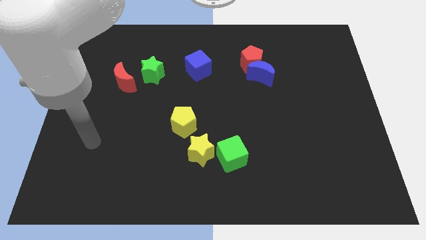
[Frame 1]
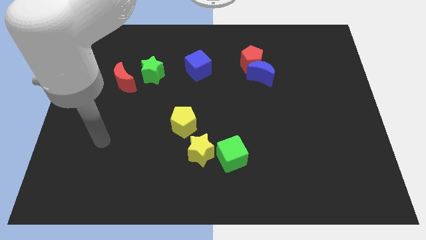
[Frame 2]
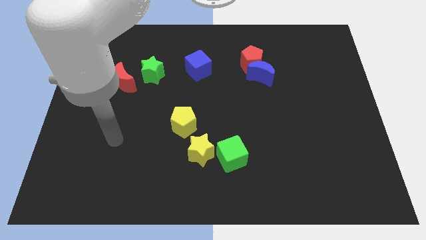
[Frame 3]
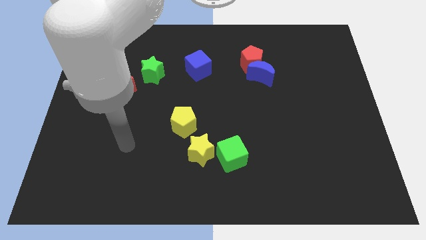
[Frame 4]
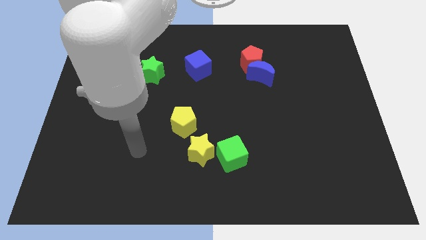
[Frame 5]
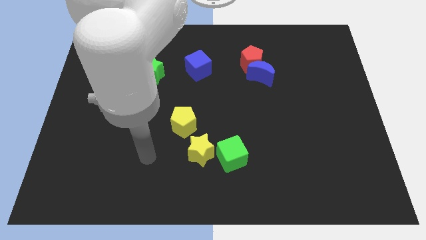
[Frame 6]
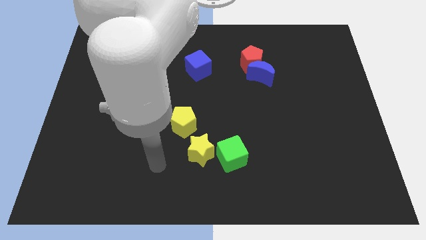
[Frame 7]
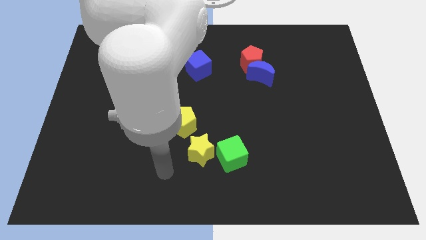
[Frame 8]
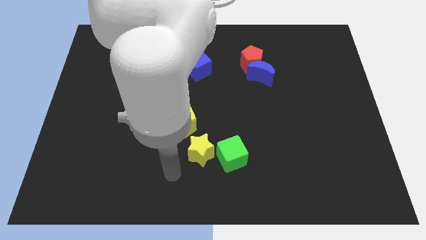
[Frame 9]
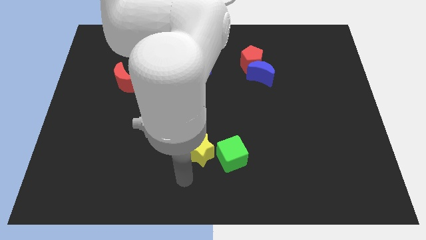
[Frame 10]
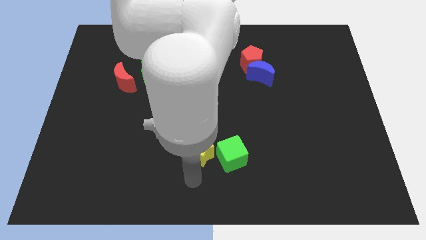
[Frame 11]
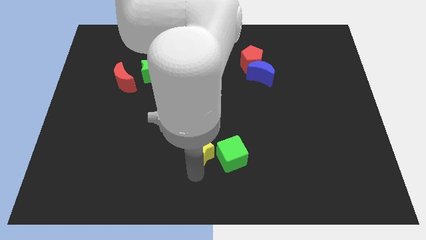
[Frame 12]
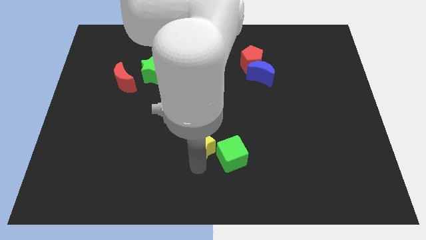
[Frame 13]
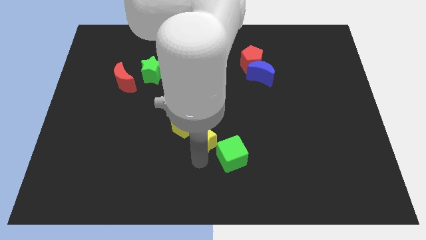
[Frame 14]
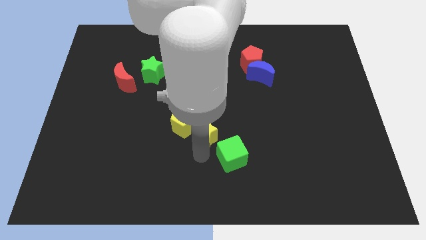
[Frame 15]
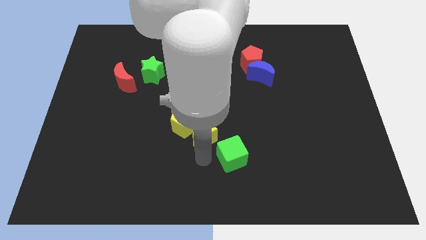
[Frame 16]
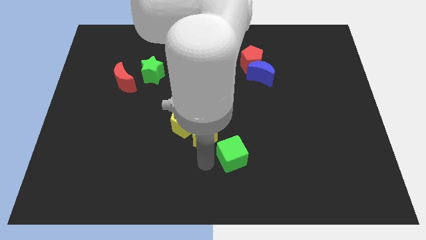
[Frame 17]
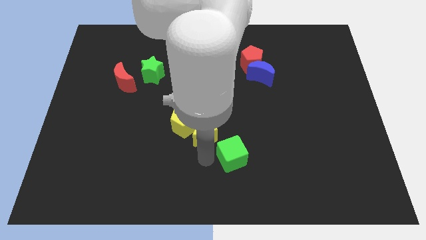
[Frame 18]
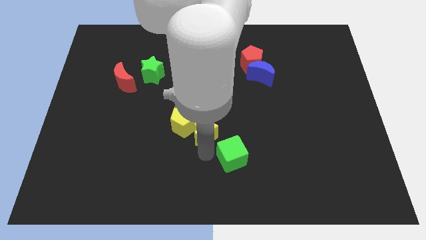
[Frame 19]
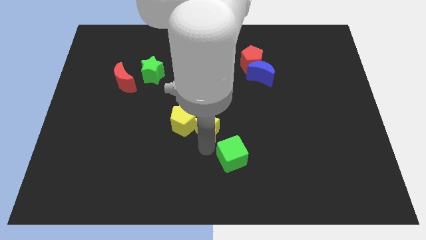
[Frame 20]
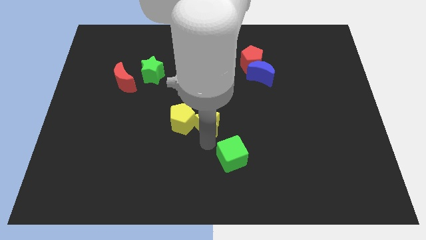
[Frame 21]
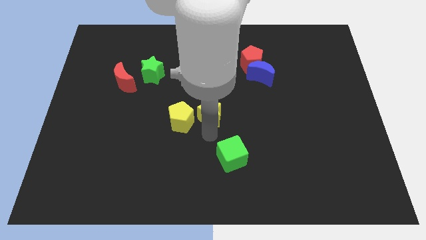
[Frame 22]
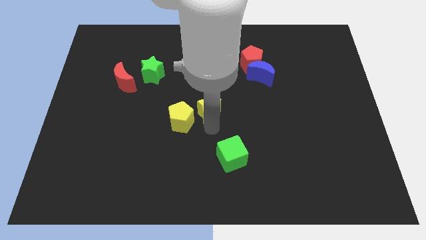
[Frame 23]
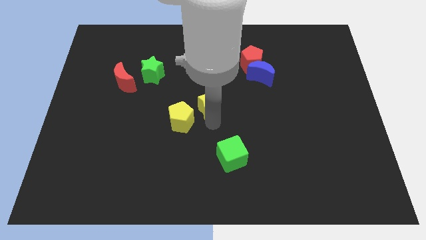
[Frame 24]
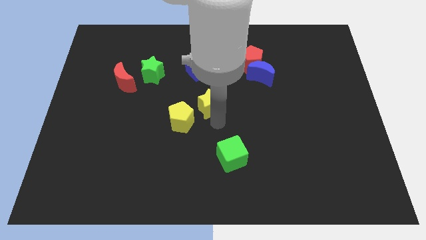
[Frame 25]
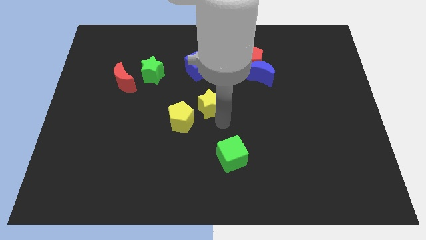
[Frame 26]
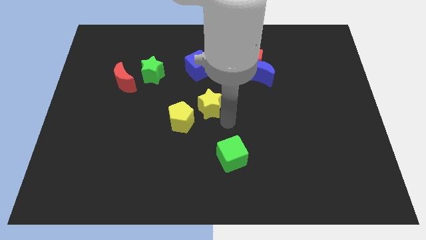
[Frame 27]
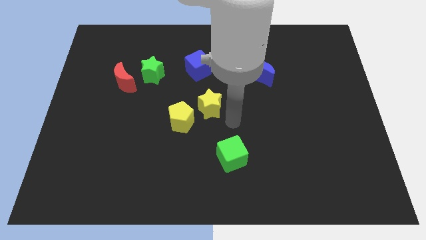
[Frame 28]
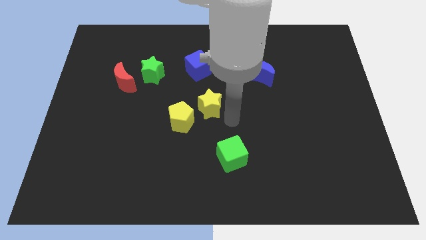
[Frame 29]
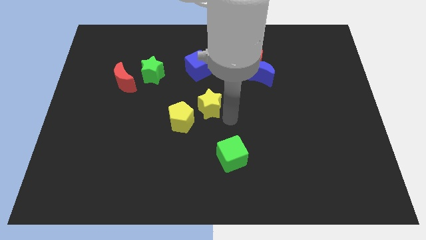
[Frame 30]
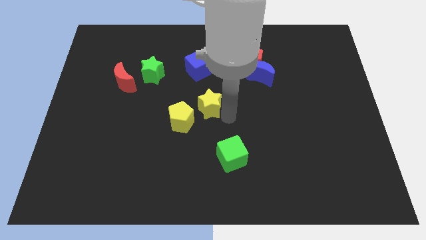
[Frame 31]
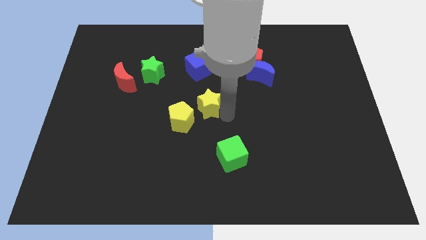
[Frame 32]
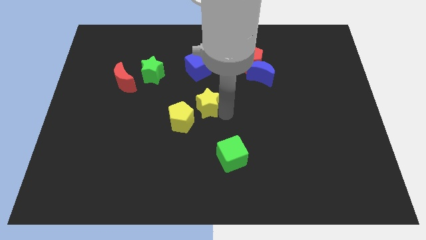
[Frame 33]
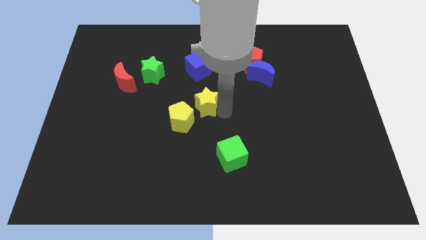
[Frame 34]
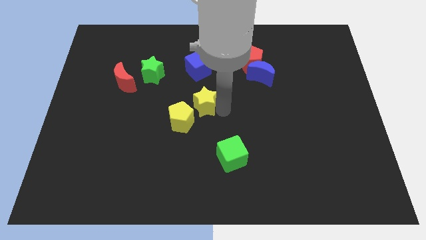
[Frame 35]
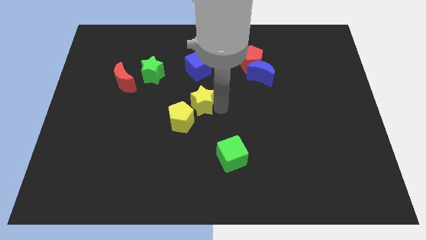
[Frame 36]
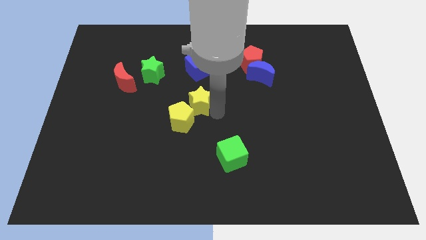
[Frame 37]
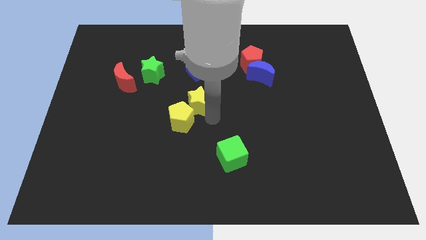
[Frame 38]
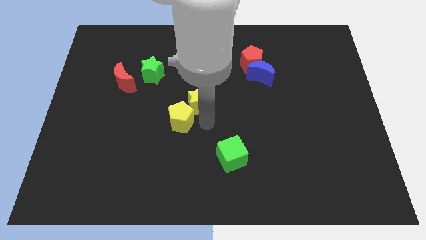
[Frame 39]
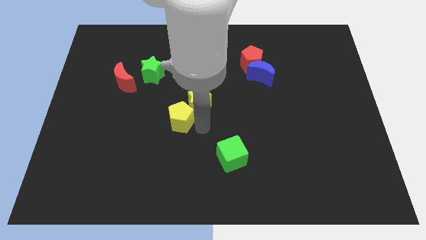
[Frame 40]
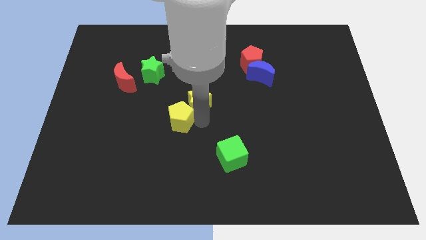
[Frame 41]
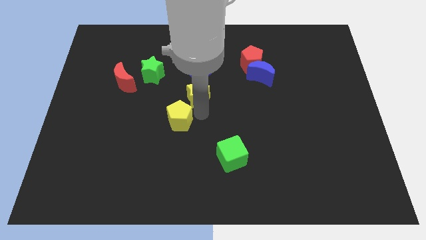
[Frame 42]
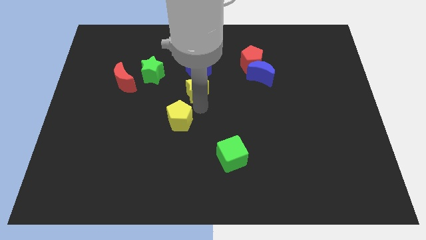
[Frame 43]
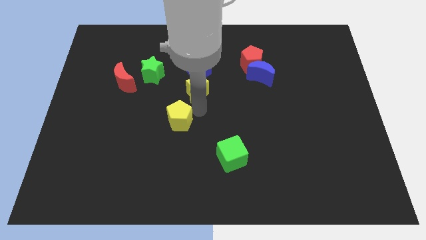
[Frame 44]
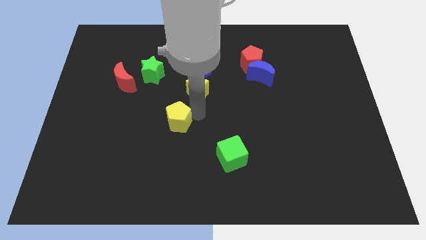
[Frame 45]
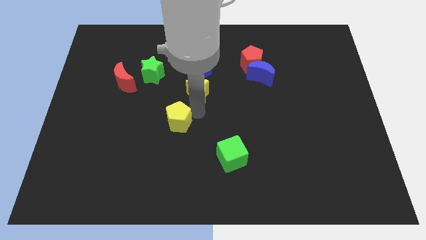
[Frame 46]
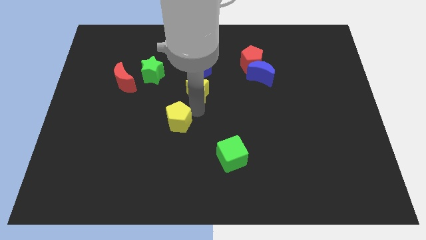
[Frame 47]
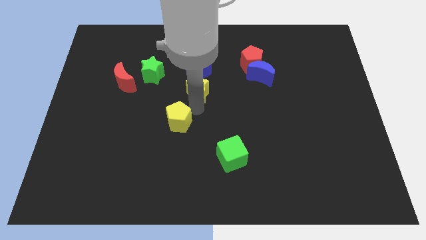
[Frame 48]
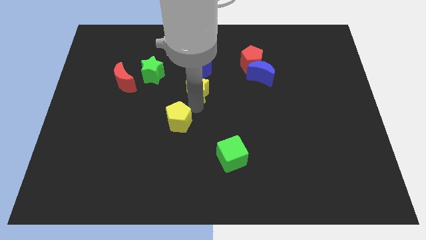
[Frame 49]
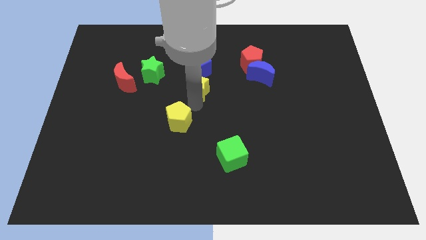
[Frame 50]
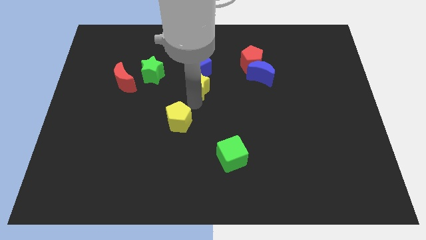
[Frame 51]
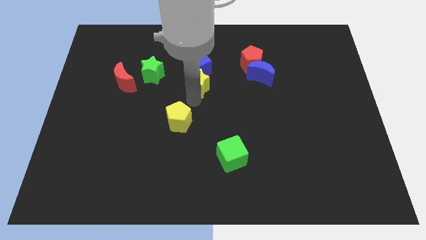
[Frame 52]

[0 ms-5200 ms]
push the yellow star next to the blue cube
